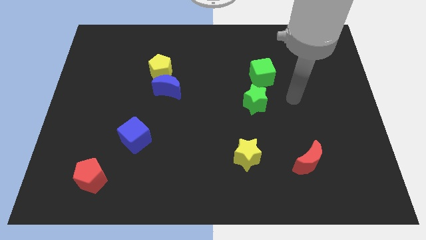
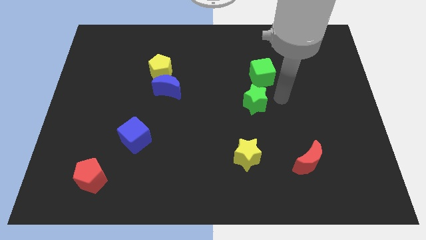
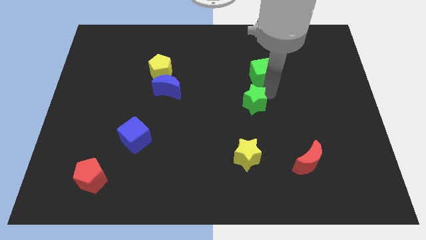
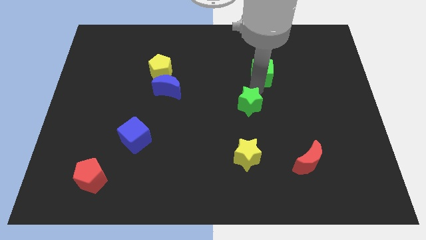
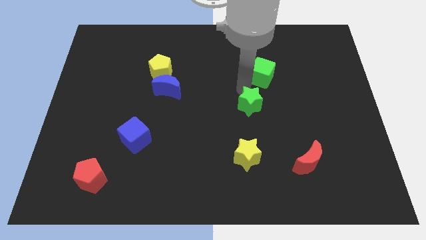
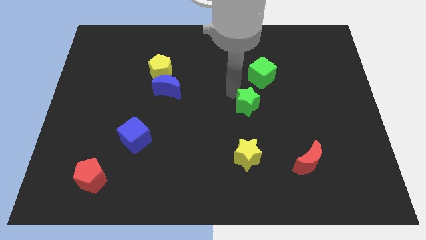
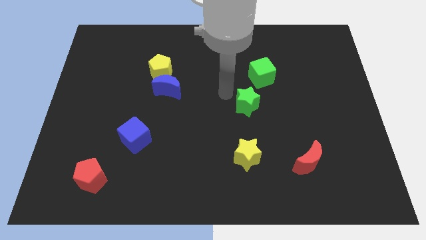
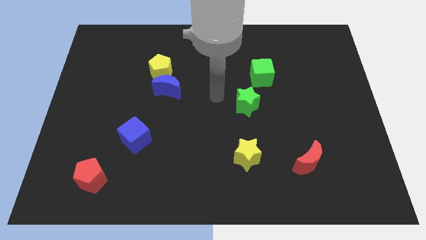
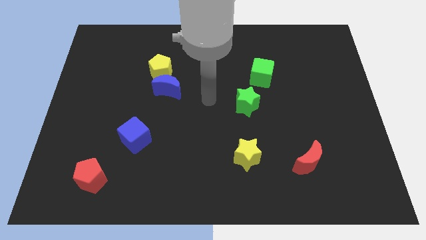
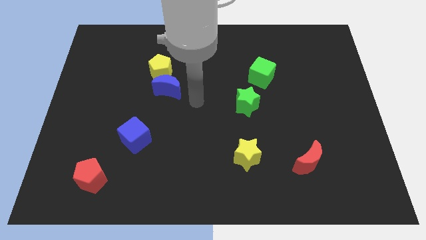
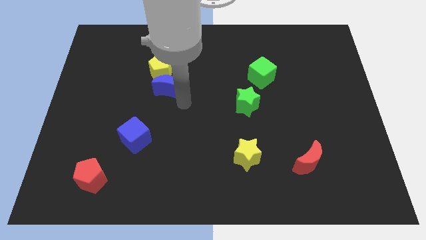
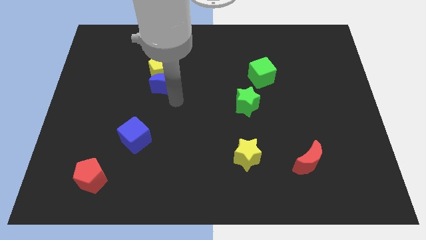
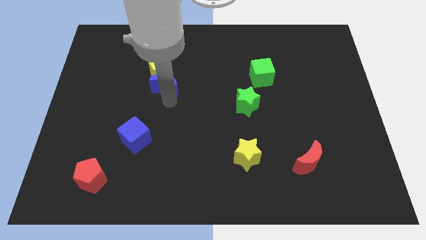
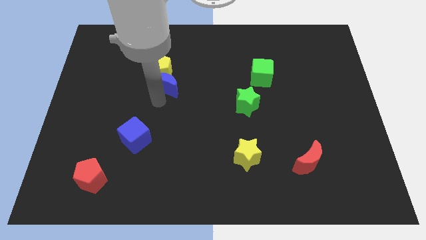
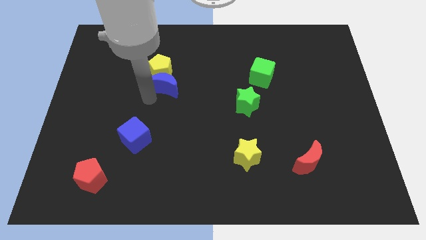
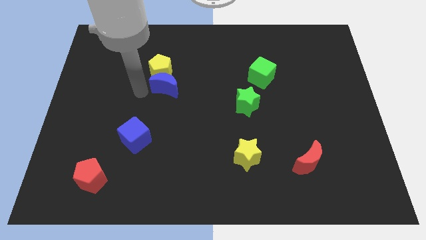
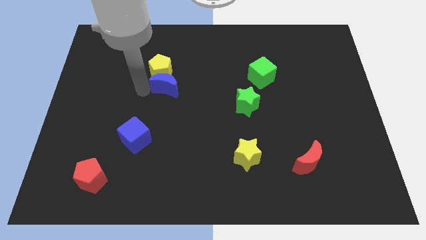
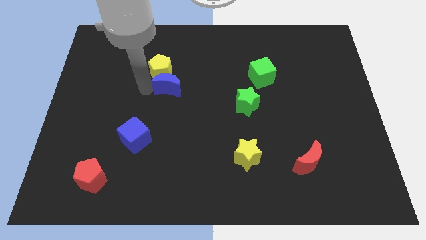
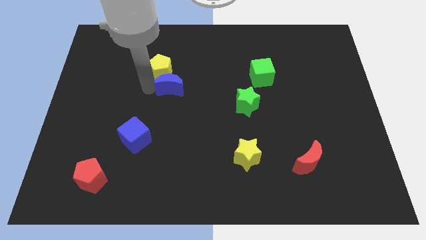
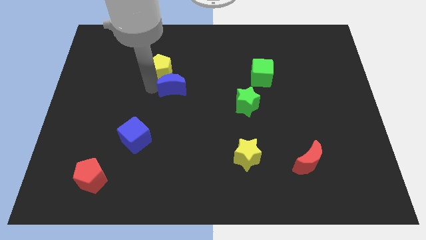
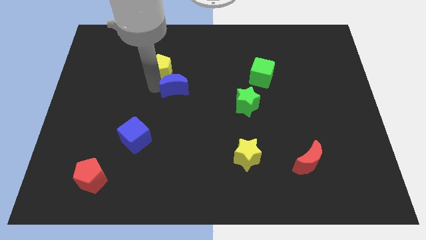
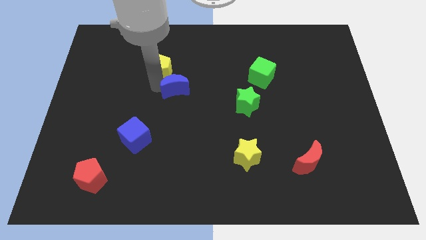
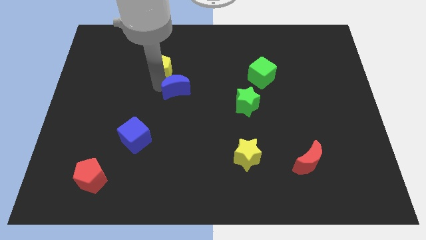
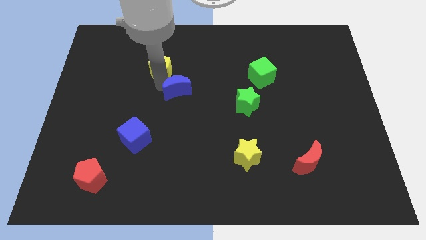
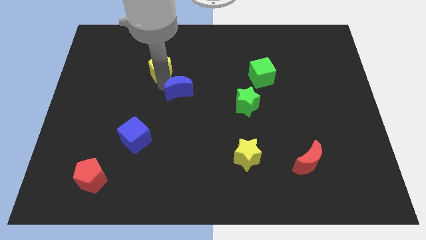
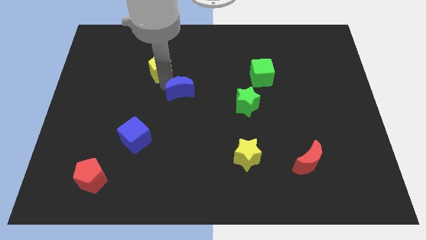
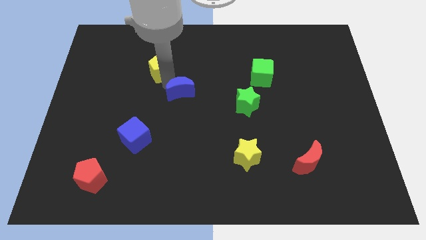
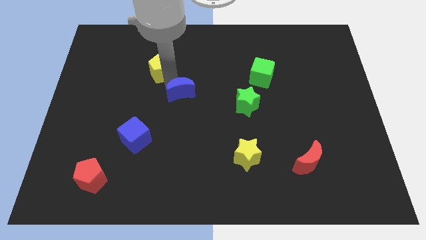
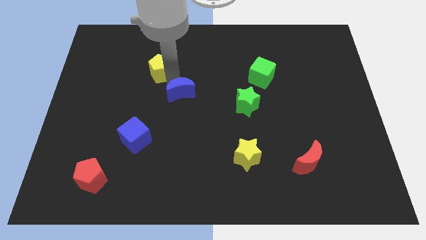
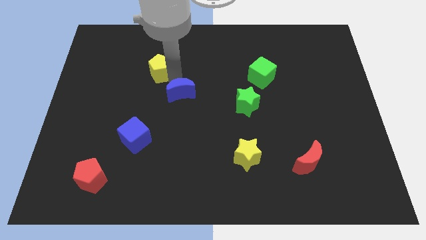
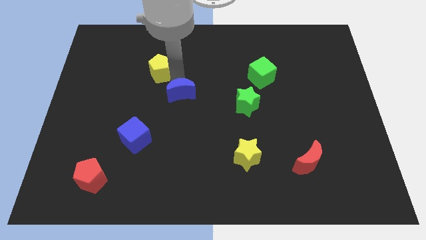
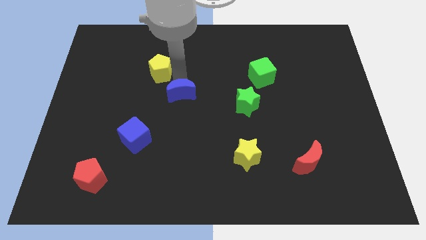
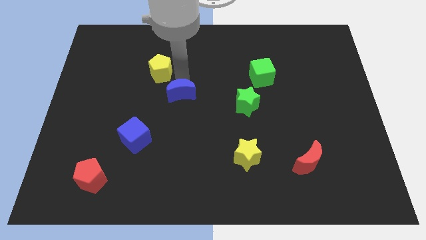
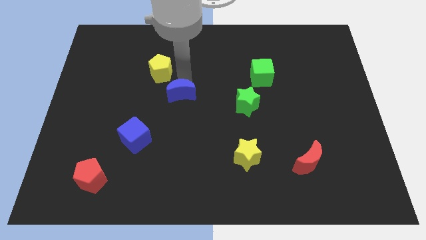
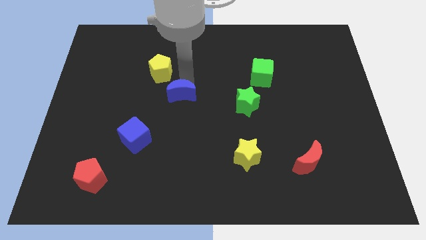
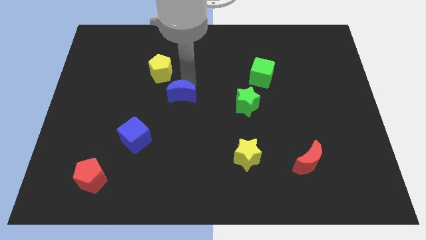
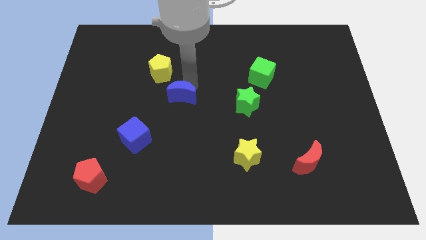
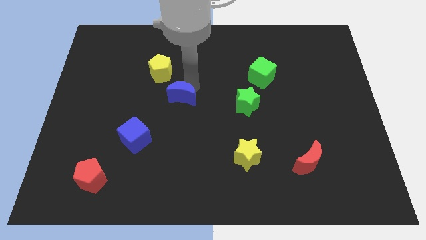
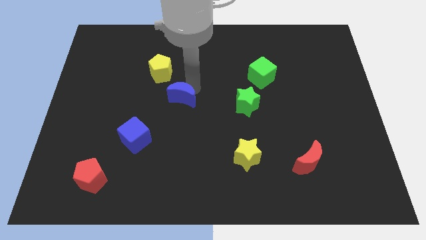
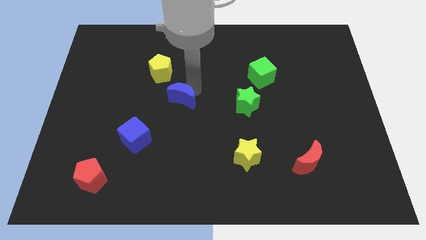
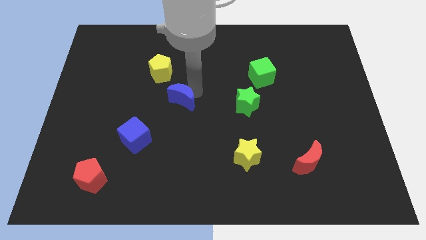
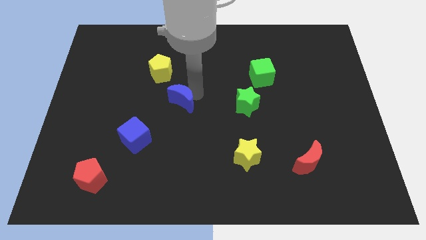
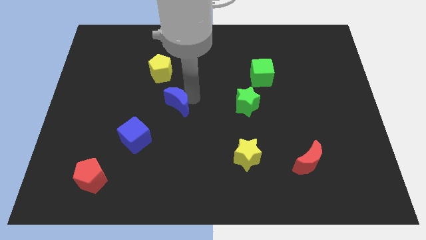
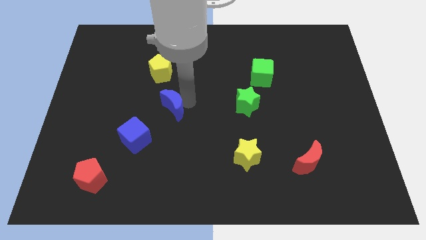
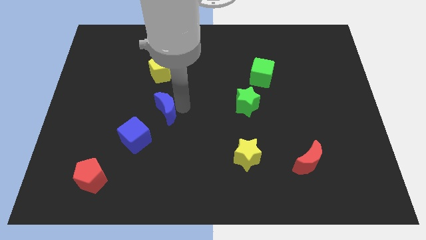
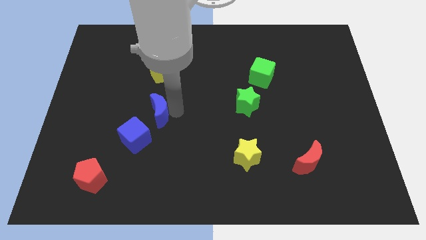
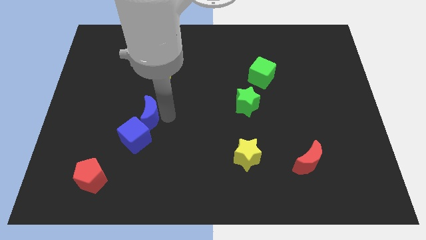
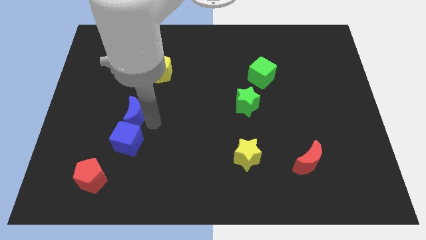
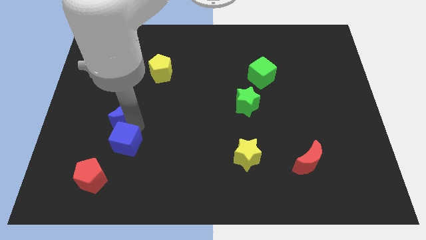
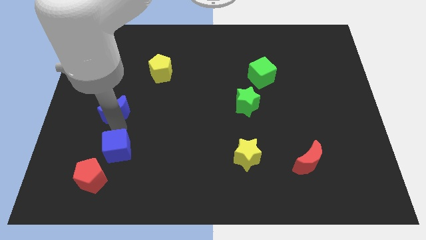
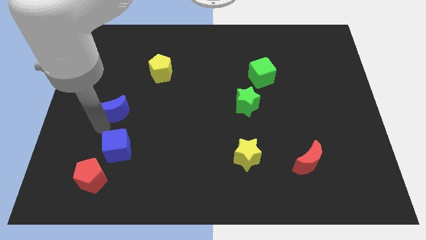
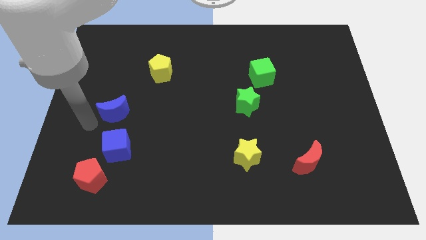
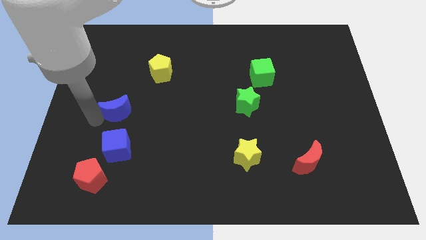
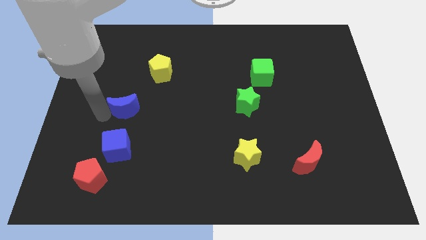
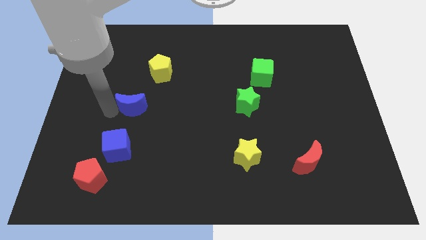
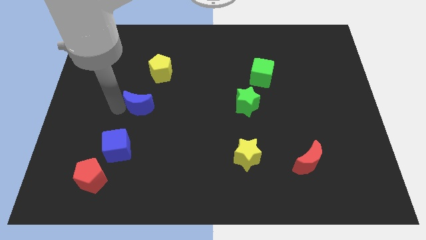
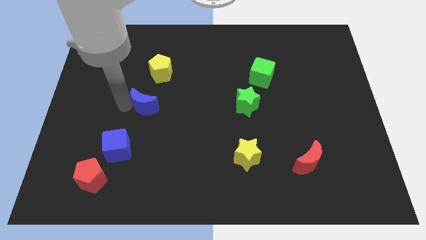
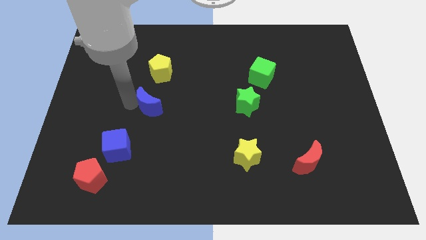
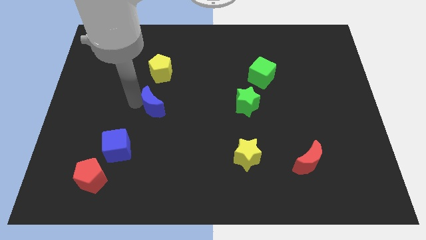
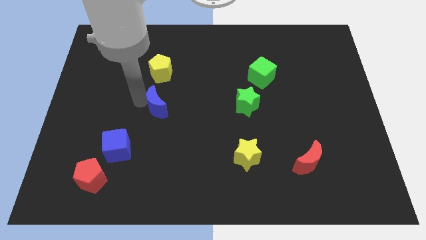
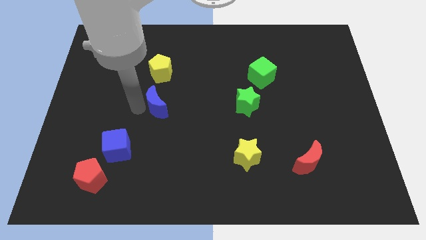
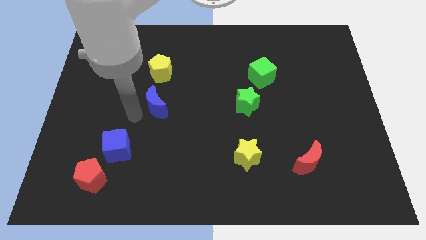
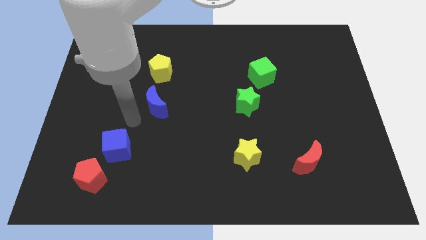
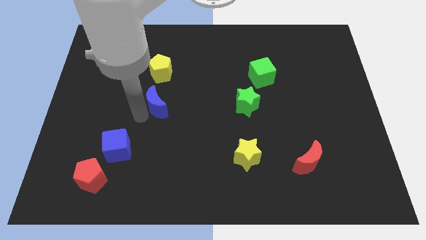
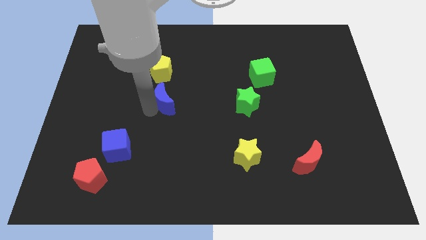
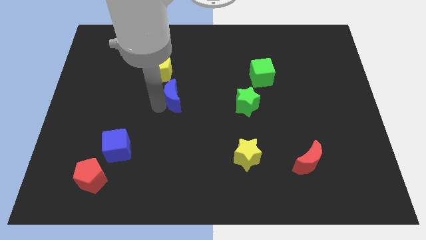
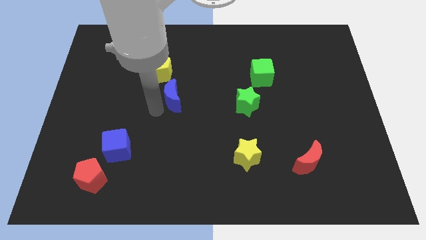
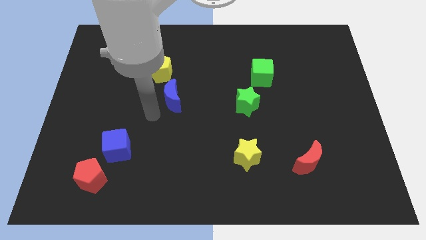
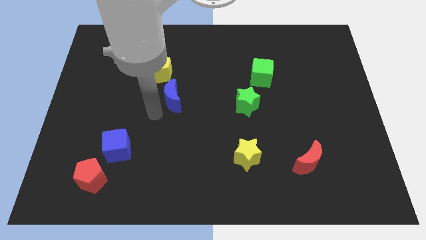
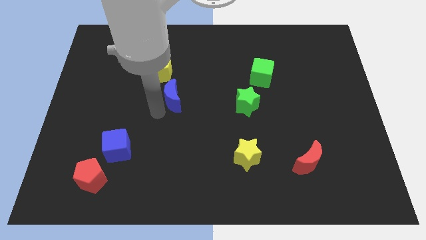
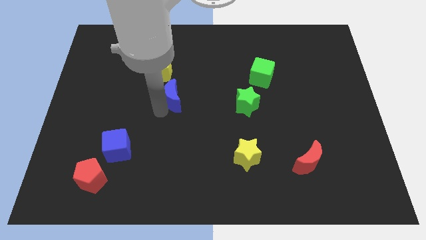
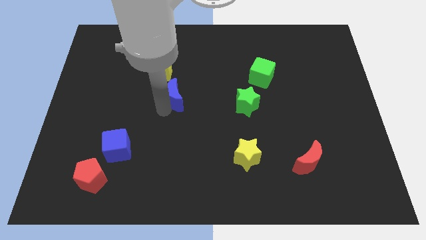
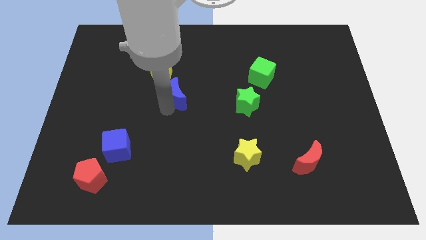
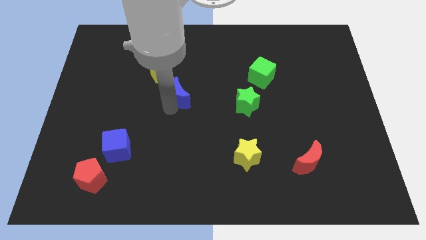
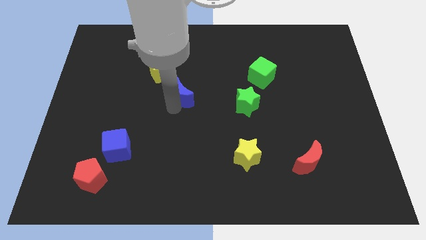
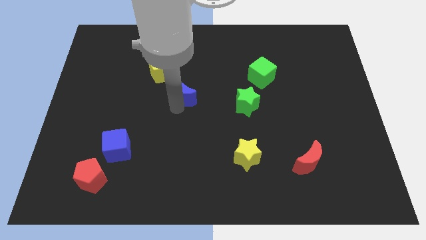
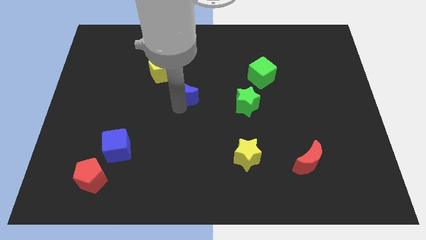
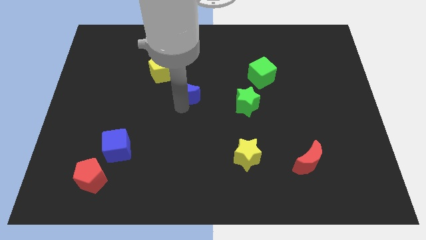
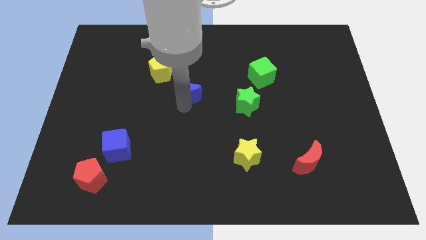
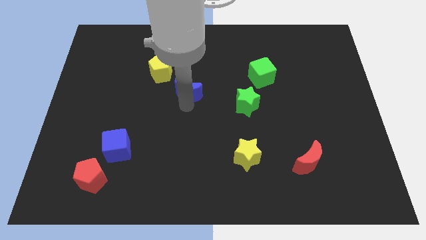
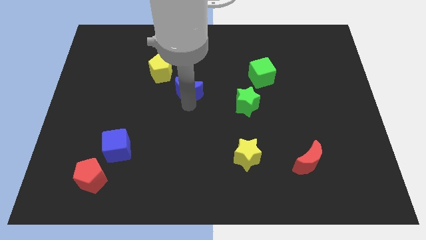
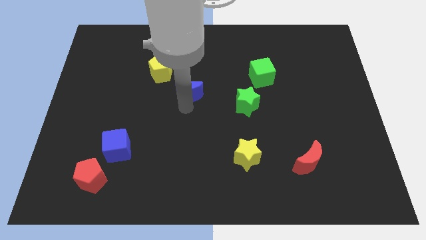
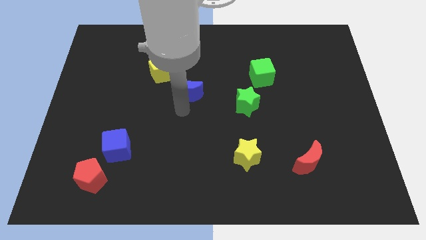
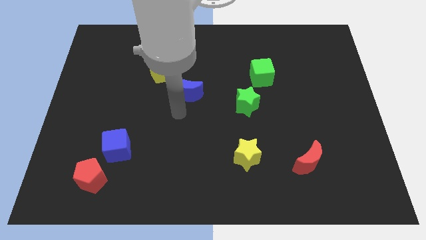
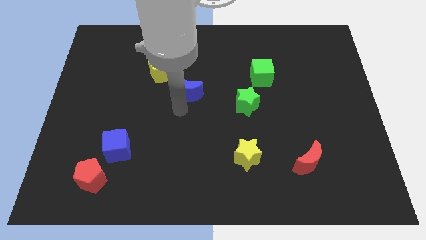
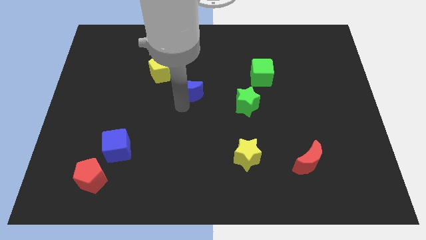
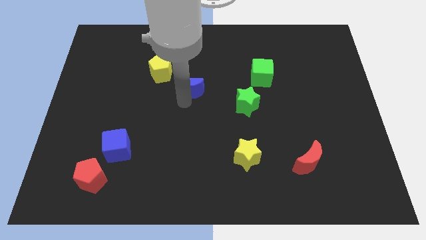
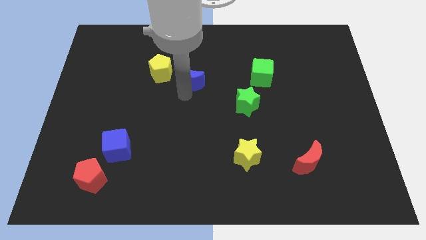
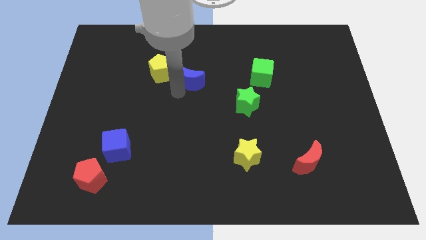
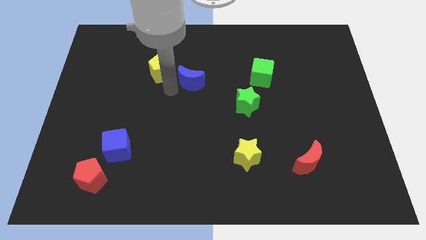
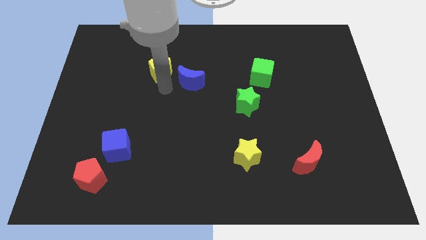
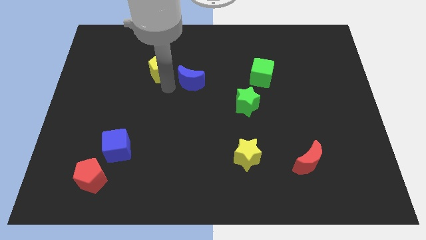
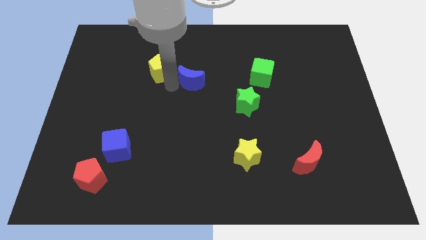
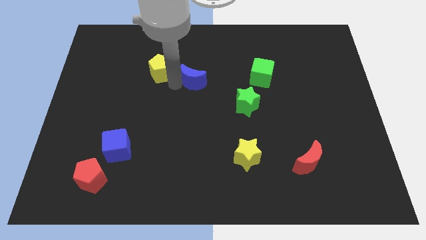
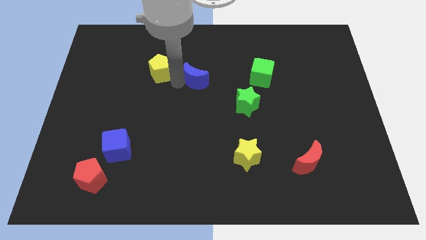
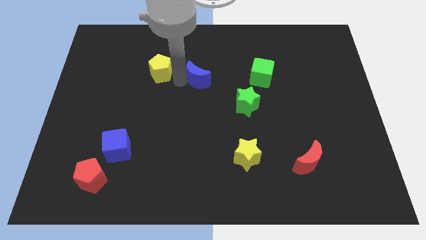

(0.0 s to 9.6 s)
push the blue moon left of the green cube
